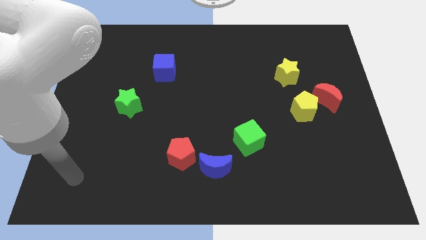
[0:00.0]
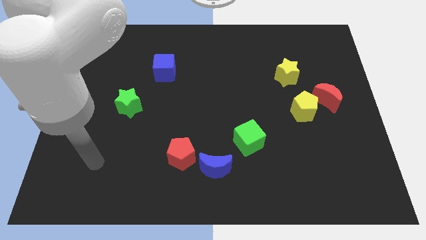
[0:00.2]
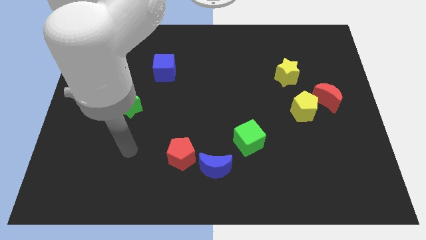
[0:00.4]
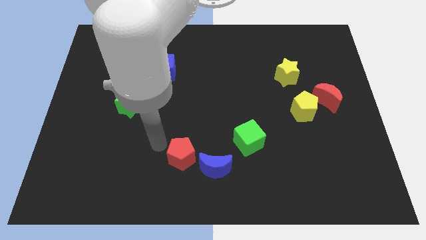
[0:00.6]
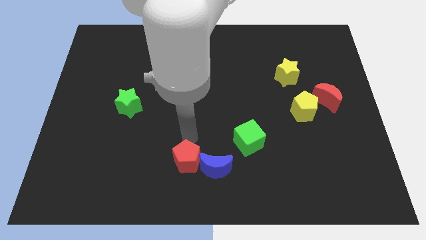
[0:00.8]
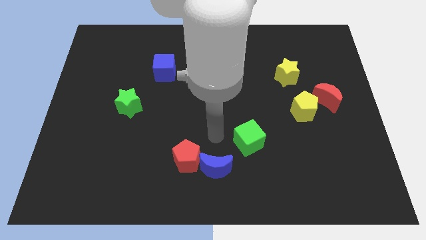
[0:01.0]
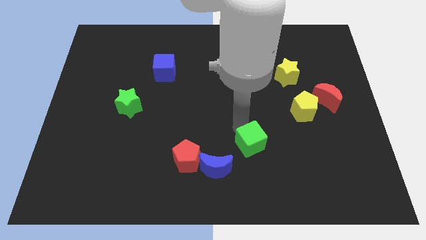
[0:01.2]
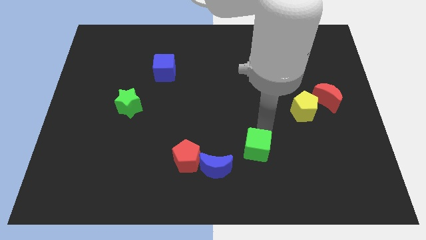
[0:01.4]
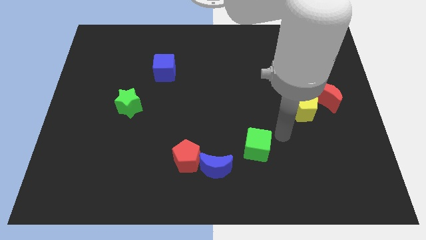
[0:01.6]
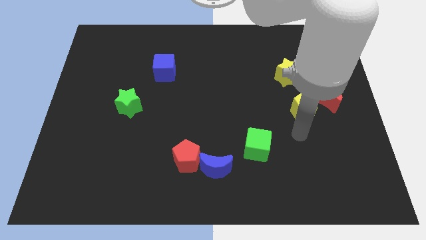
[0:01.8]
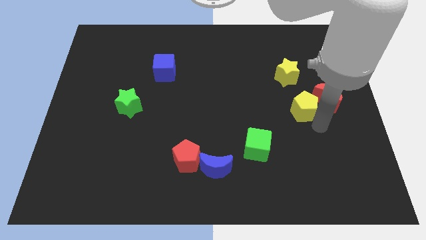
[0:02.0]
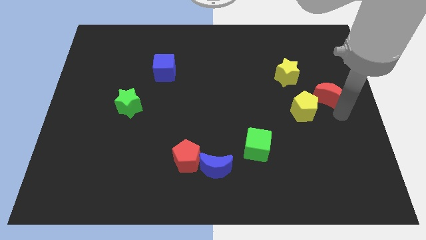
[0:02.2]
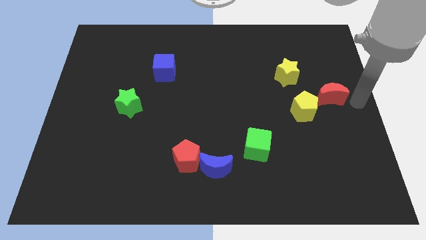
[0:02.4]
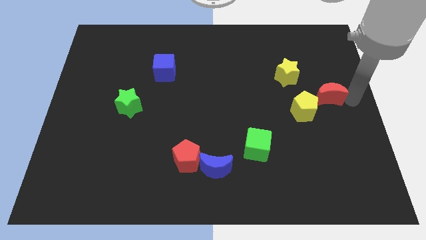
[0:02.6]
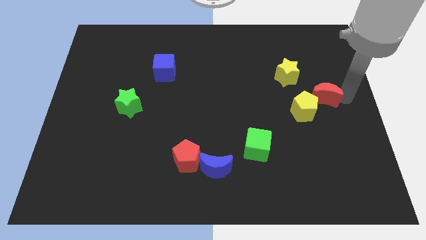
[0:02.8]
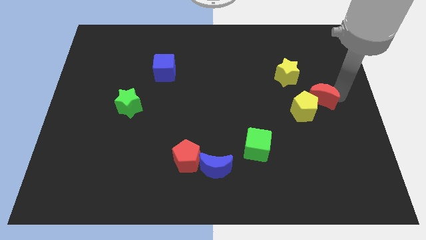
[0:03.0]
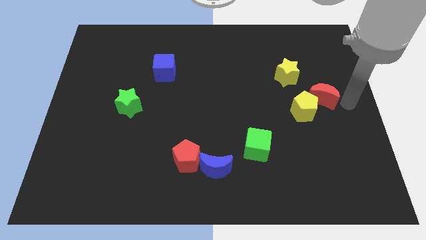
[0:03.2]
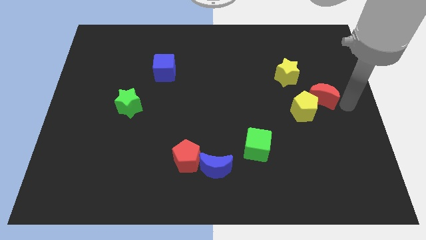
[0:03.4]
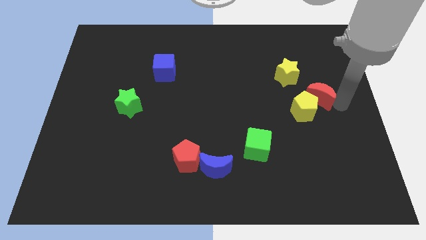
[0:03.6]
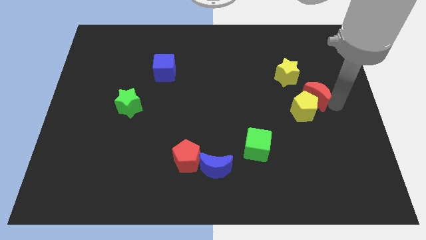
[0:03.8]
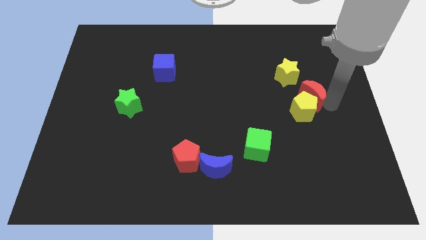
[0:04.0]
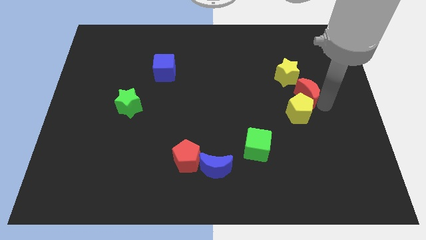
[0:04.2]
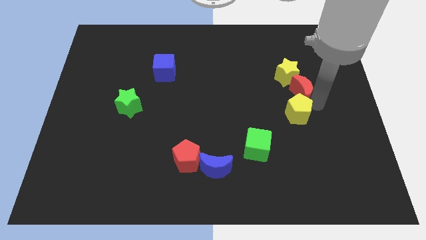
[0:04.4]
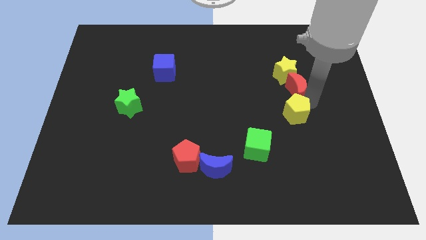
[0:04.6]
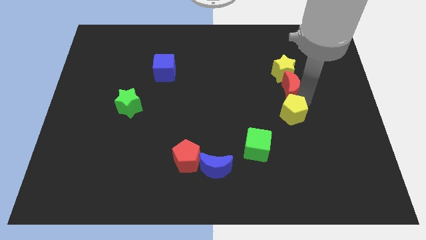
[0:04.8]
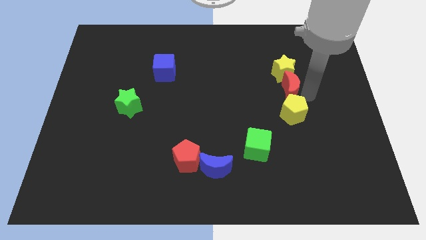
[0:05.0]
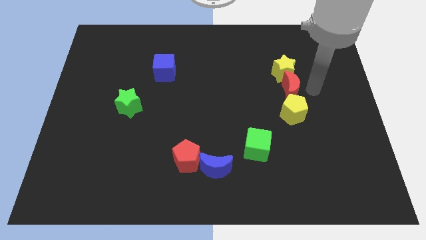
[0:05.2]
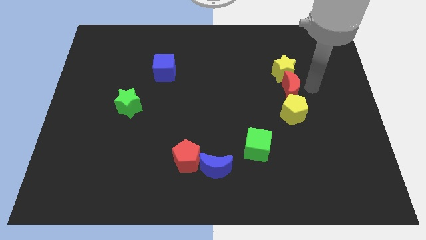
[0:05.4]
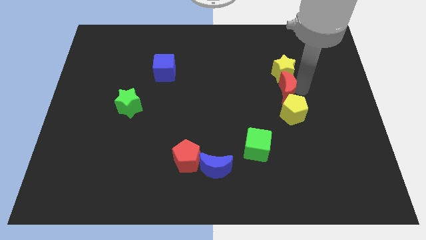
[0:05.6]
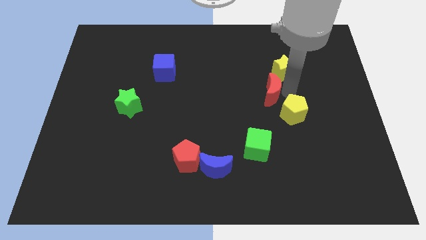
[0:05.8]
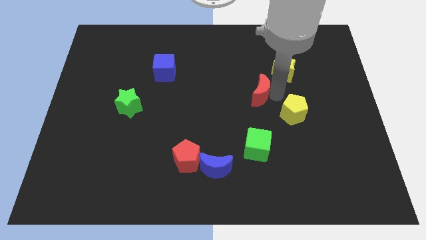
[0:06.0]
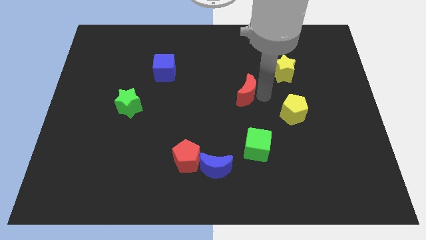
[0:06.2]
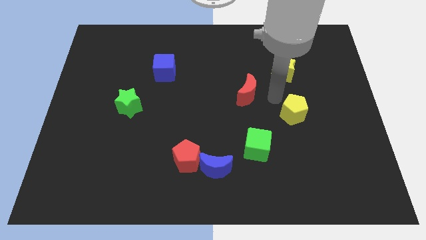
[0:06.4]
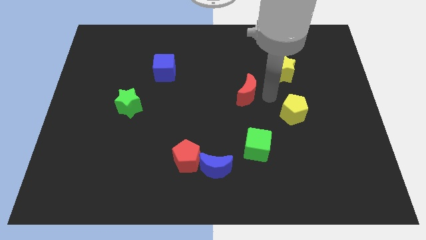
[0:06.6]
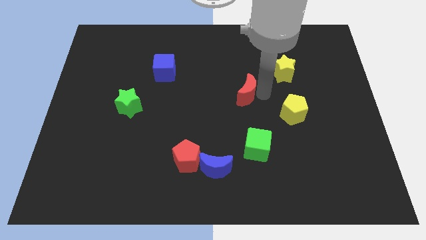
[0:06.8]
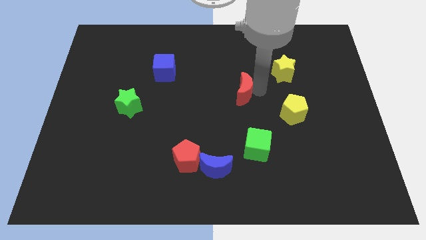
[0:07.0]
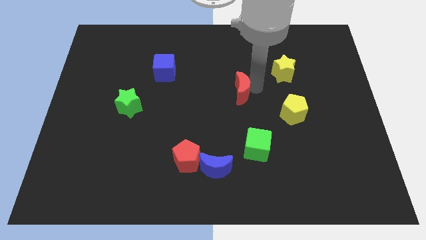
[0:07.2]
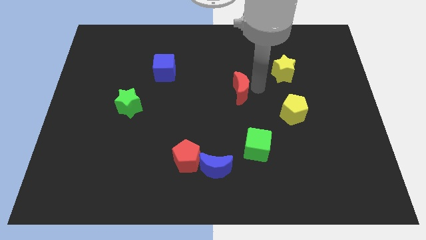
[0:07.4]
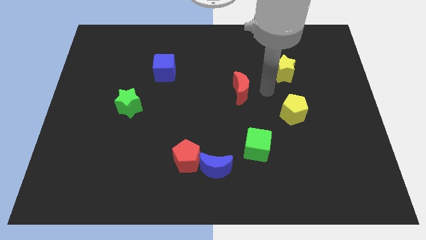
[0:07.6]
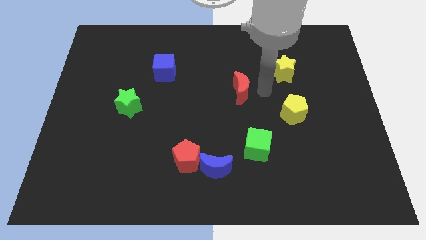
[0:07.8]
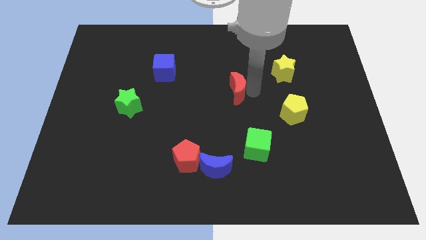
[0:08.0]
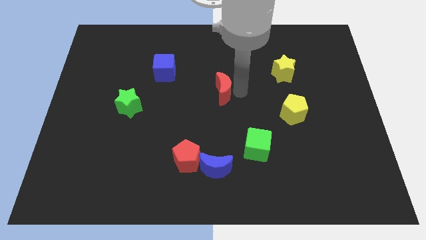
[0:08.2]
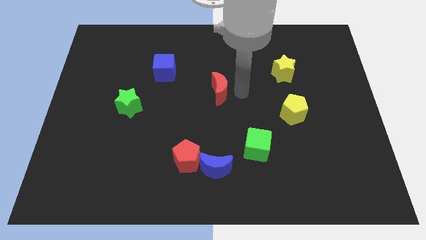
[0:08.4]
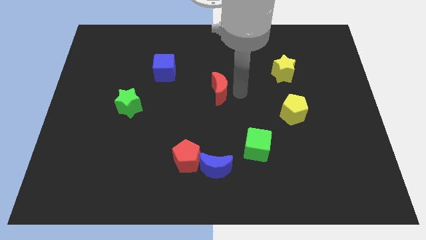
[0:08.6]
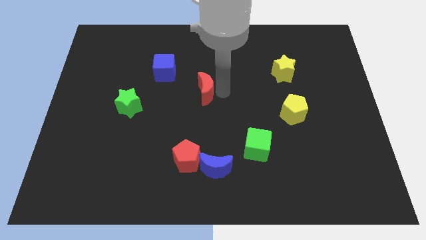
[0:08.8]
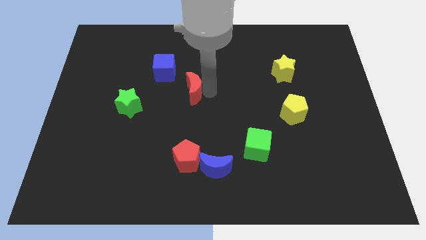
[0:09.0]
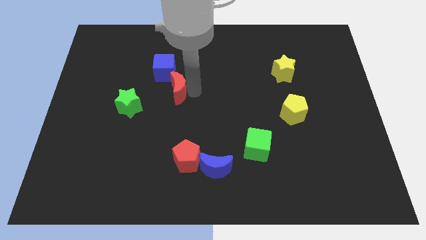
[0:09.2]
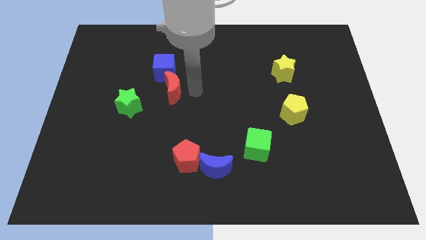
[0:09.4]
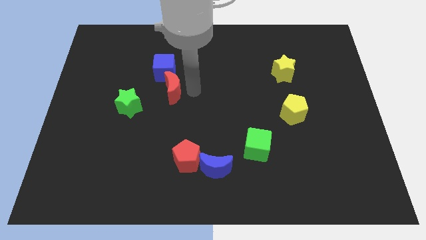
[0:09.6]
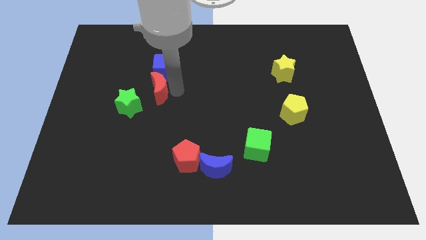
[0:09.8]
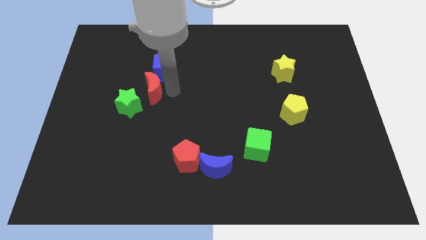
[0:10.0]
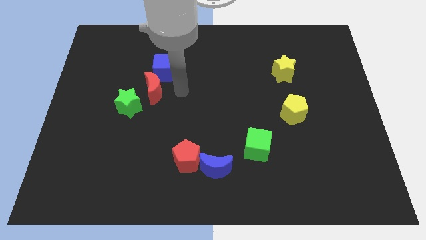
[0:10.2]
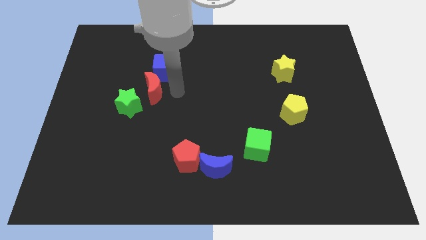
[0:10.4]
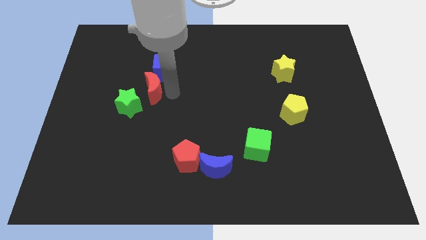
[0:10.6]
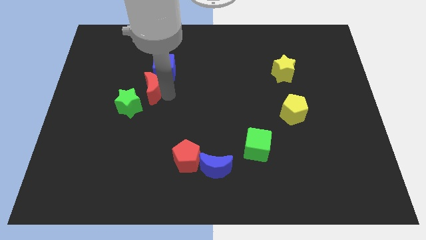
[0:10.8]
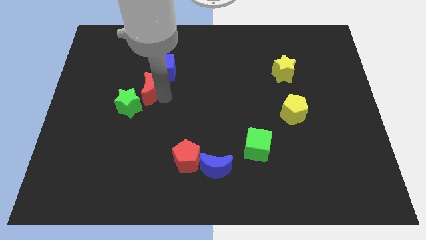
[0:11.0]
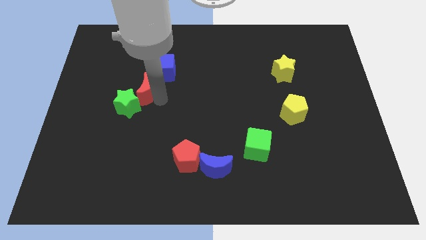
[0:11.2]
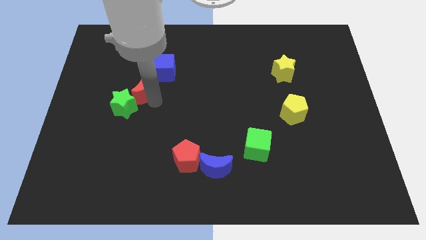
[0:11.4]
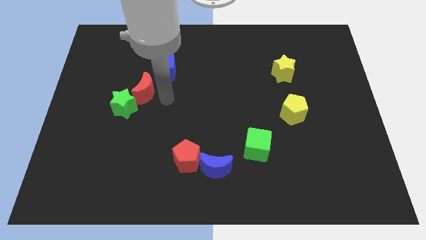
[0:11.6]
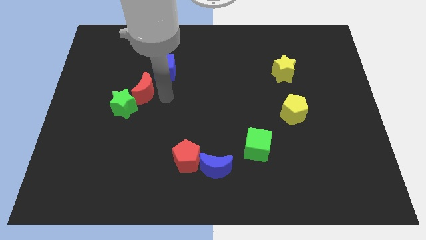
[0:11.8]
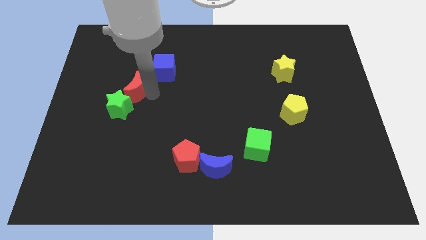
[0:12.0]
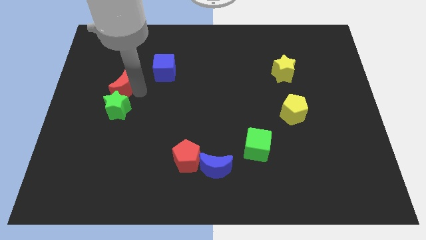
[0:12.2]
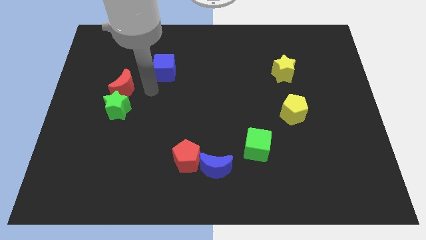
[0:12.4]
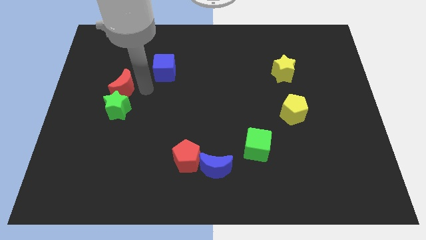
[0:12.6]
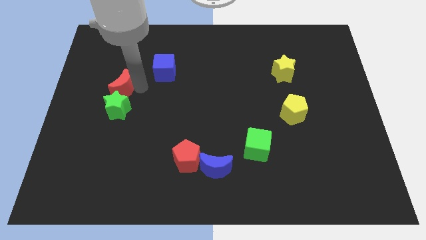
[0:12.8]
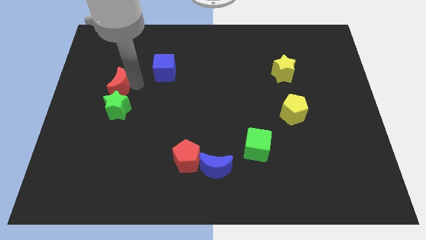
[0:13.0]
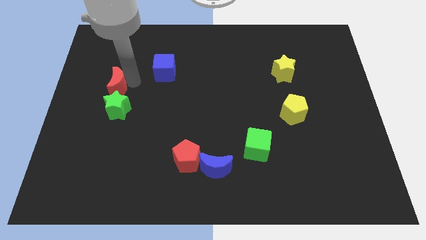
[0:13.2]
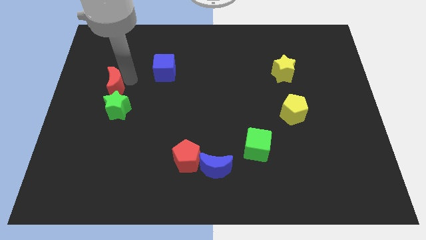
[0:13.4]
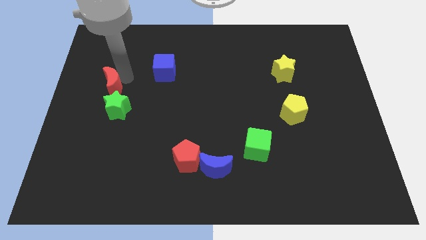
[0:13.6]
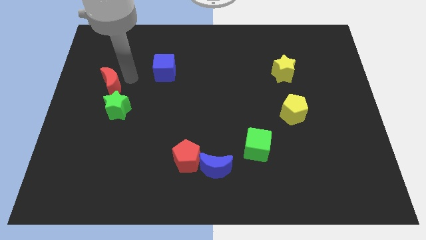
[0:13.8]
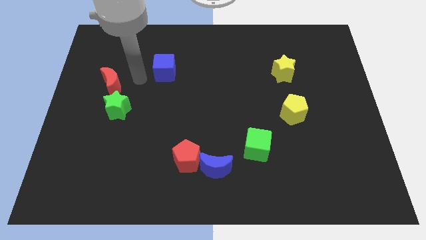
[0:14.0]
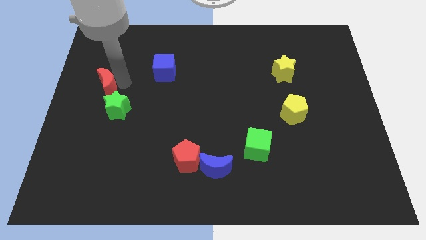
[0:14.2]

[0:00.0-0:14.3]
move the red moon to the left side

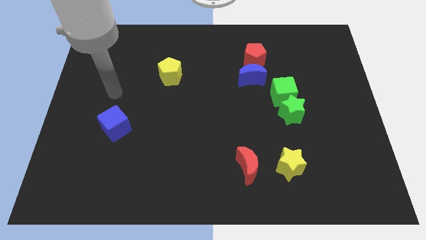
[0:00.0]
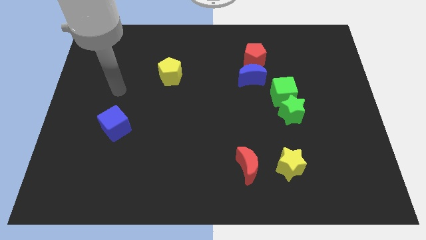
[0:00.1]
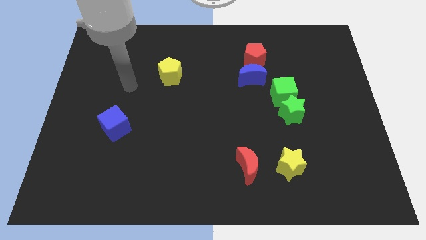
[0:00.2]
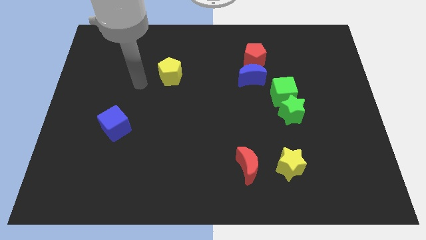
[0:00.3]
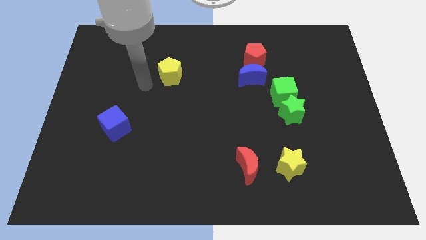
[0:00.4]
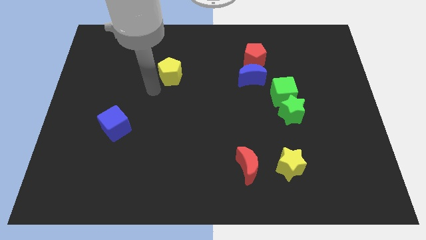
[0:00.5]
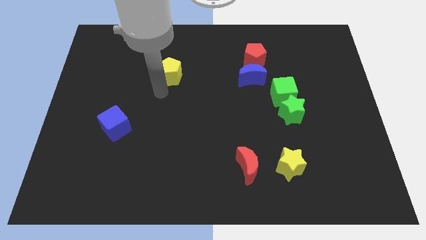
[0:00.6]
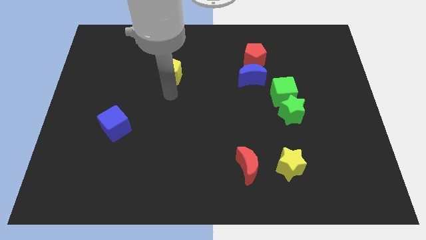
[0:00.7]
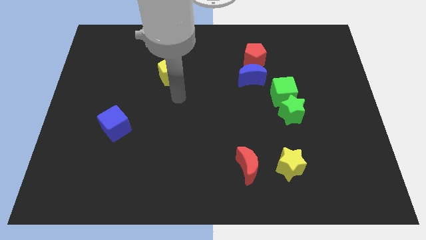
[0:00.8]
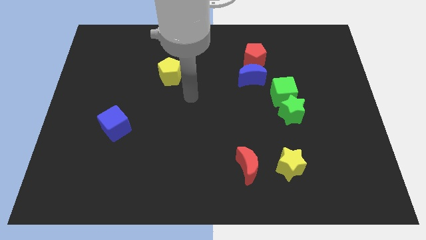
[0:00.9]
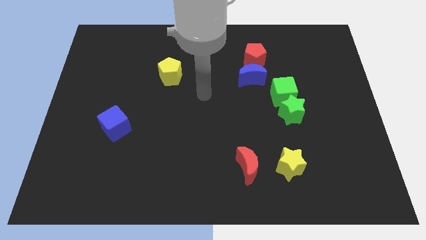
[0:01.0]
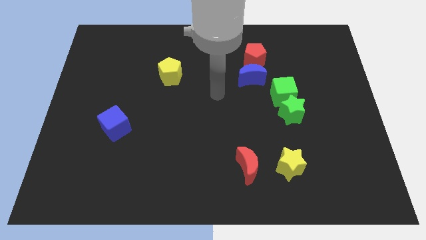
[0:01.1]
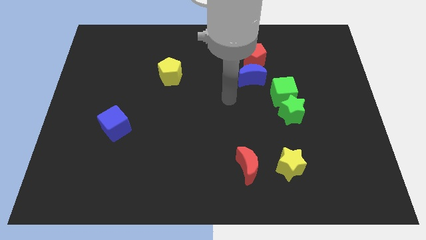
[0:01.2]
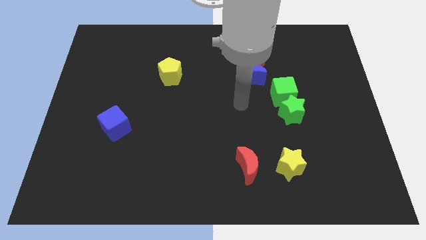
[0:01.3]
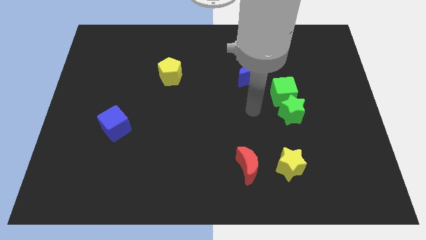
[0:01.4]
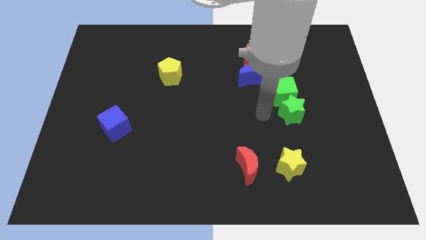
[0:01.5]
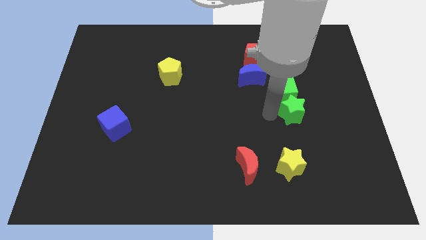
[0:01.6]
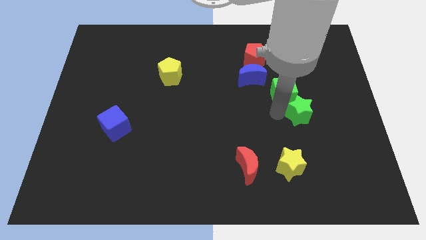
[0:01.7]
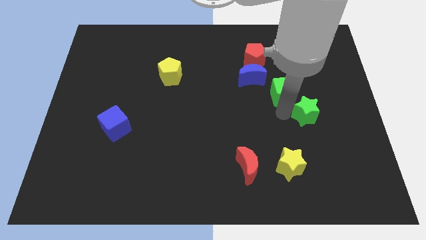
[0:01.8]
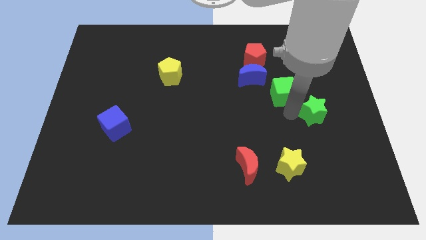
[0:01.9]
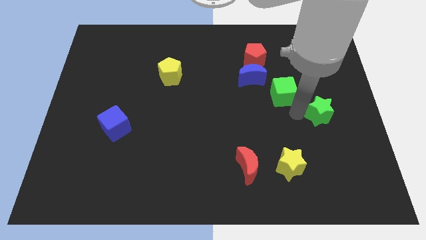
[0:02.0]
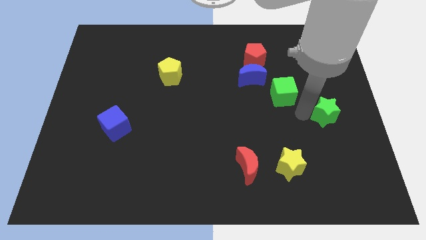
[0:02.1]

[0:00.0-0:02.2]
move the green star to the center right
